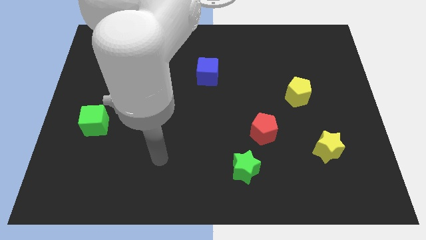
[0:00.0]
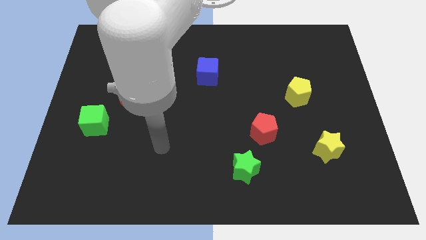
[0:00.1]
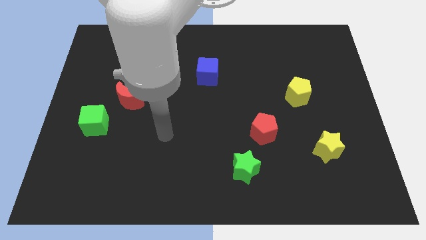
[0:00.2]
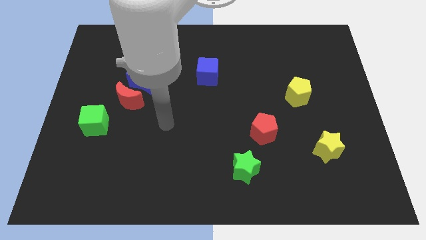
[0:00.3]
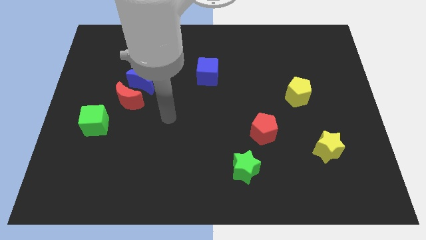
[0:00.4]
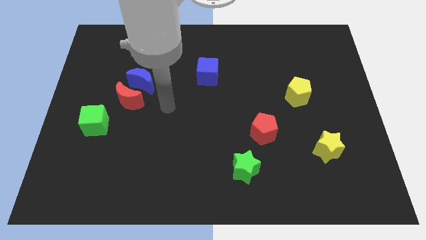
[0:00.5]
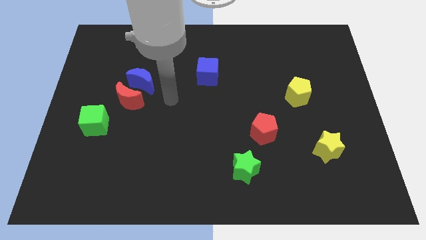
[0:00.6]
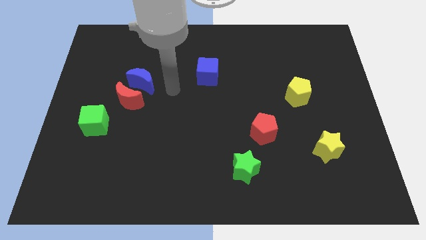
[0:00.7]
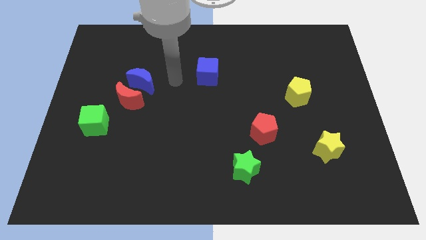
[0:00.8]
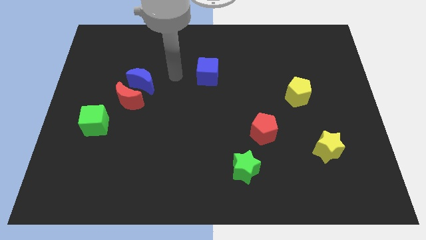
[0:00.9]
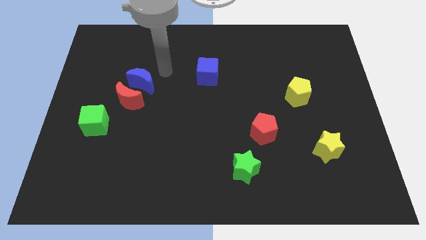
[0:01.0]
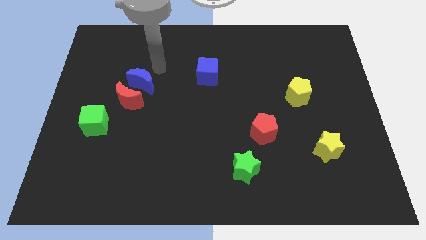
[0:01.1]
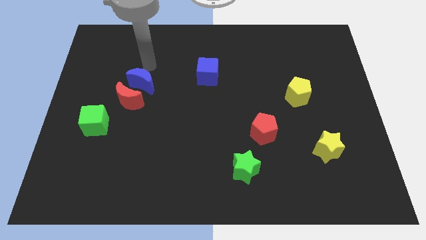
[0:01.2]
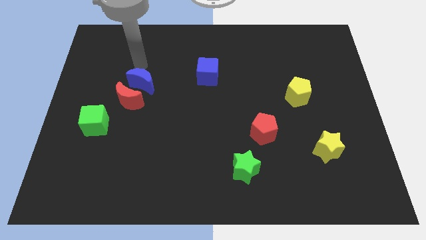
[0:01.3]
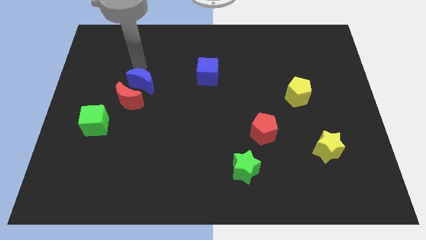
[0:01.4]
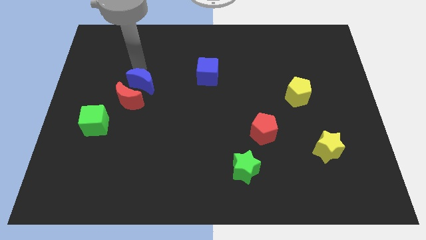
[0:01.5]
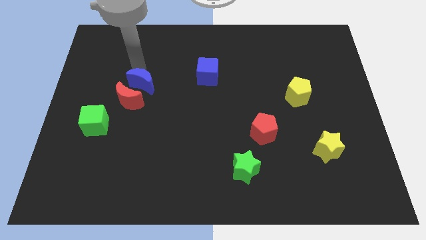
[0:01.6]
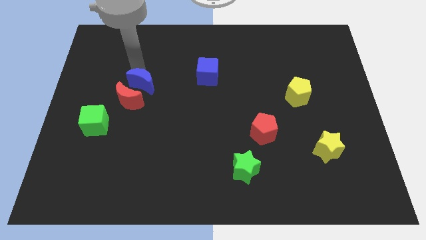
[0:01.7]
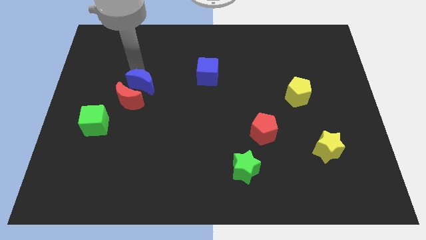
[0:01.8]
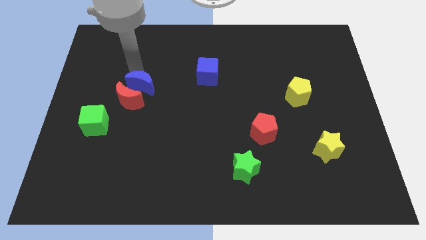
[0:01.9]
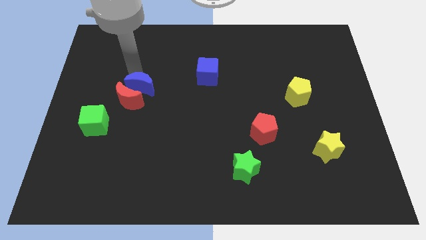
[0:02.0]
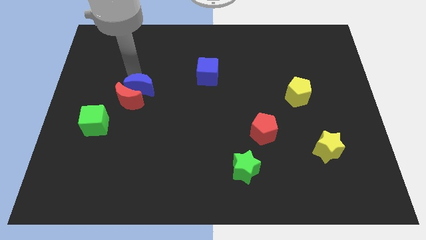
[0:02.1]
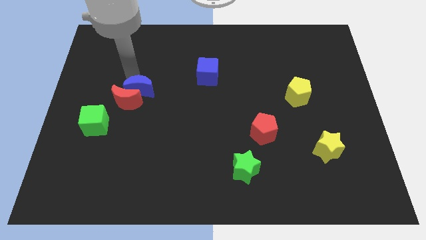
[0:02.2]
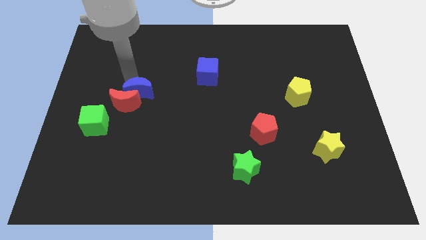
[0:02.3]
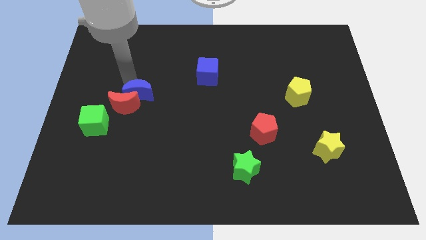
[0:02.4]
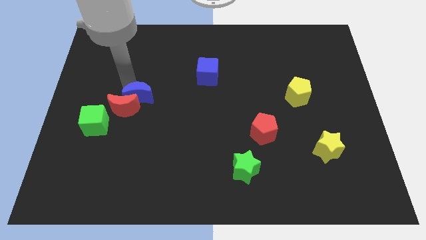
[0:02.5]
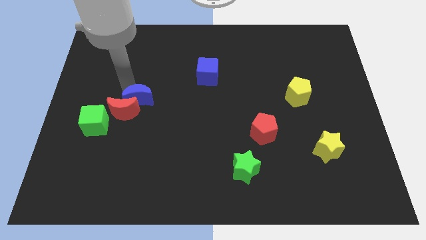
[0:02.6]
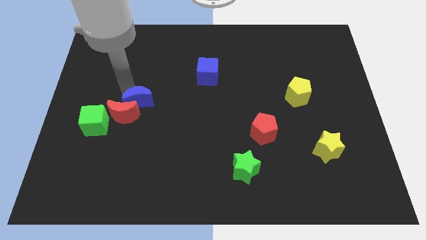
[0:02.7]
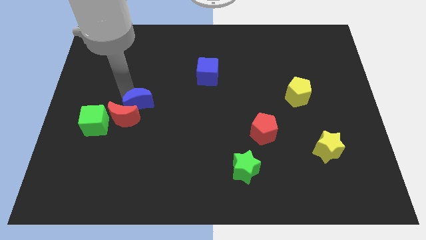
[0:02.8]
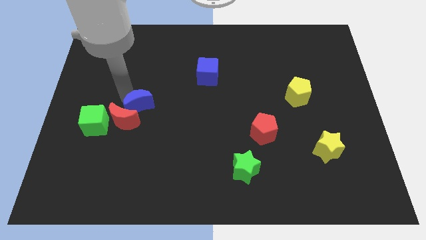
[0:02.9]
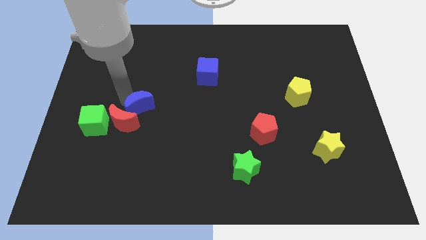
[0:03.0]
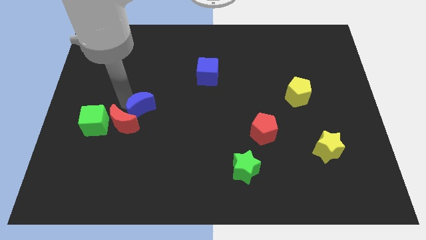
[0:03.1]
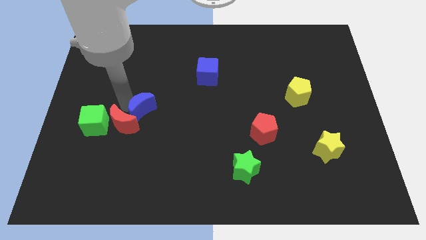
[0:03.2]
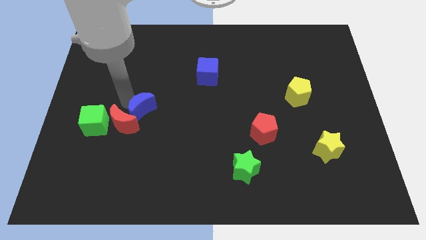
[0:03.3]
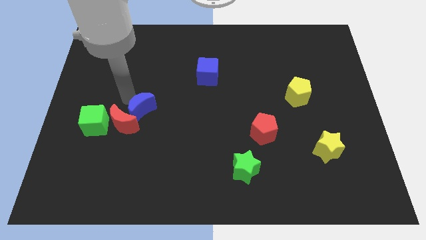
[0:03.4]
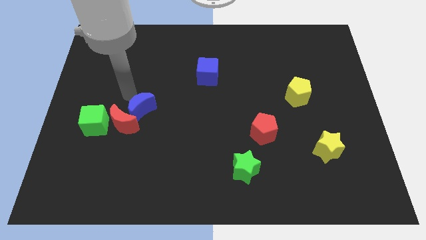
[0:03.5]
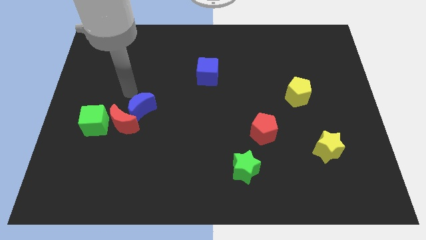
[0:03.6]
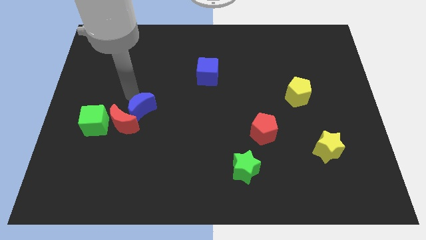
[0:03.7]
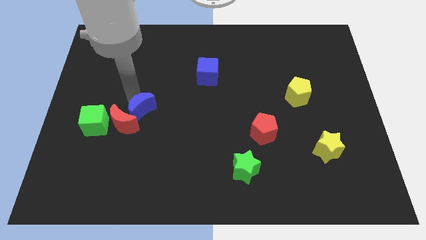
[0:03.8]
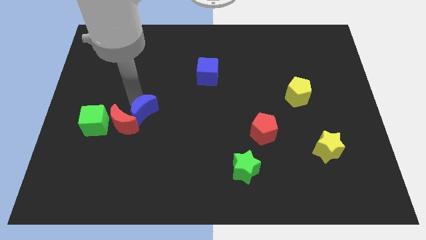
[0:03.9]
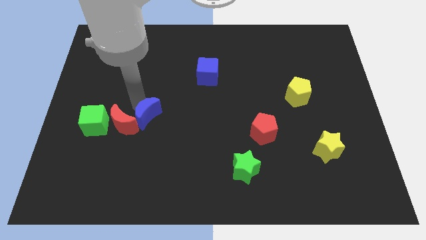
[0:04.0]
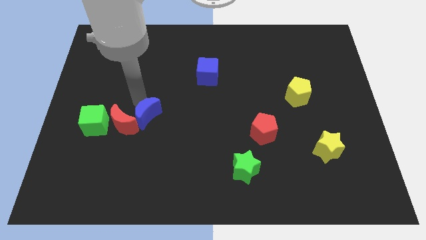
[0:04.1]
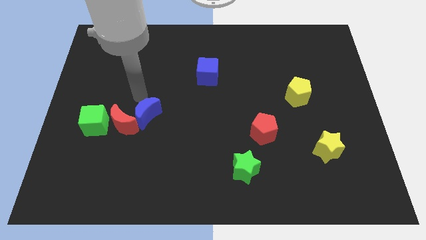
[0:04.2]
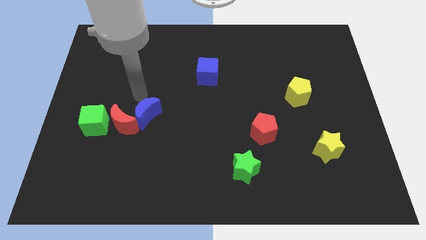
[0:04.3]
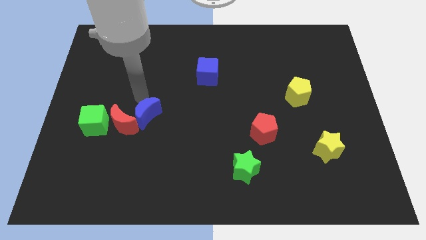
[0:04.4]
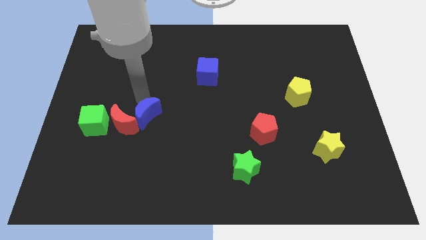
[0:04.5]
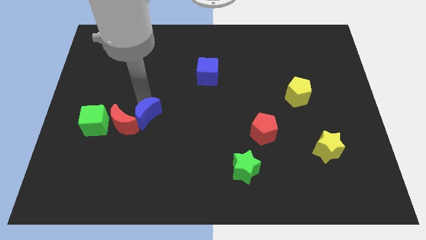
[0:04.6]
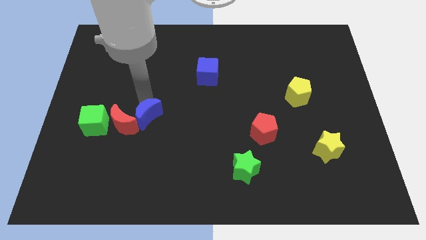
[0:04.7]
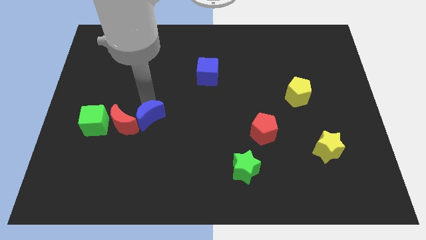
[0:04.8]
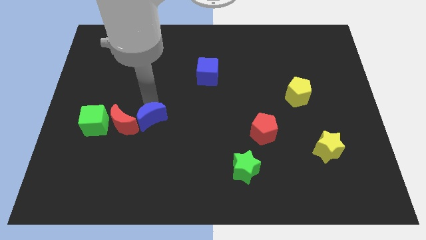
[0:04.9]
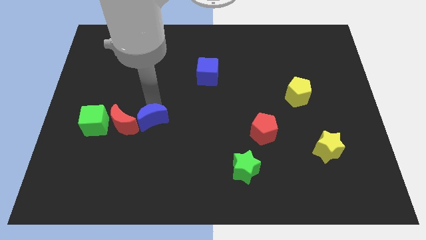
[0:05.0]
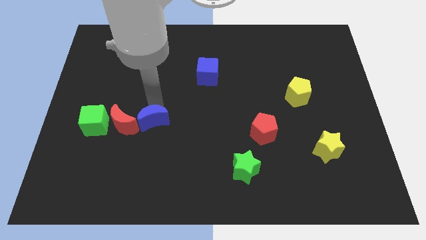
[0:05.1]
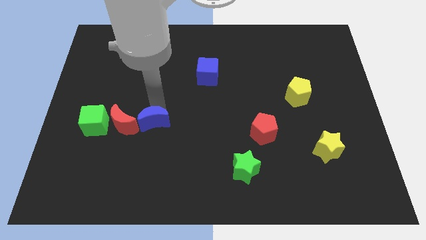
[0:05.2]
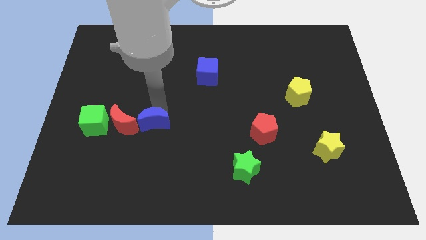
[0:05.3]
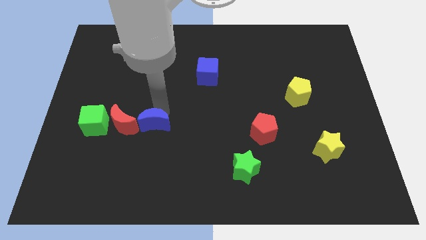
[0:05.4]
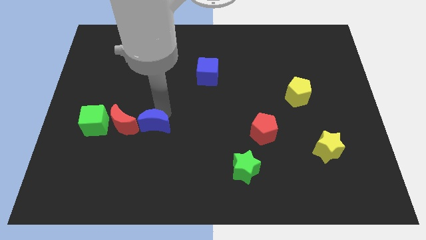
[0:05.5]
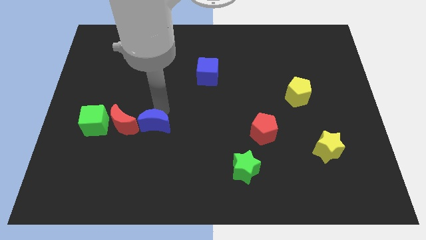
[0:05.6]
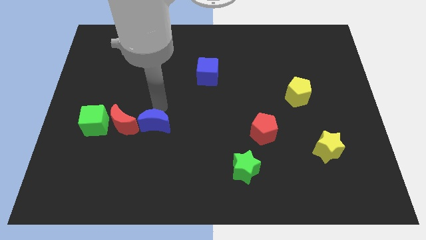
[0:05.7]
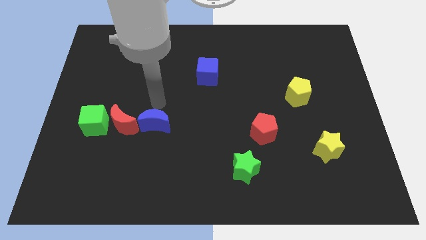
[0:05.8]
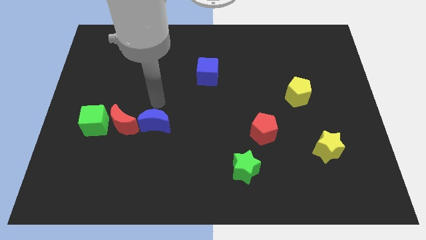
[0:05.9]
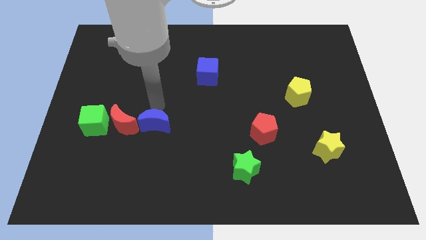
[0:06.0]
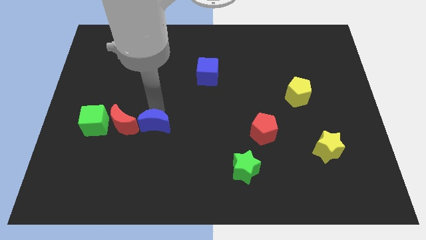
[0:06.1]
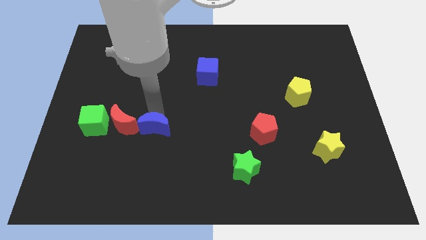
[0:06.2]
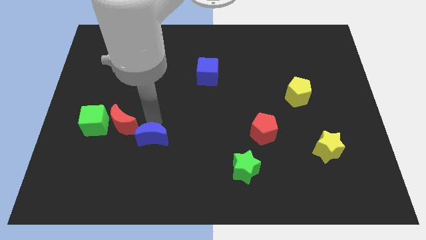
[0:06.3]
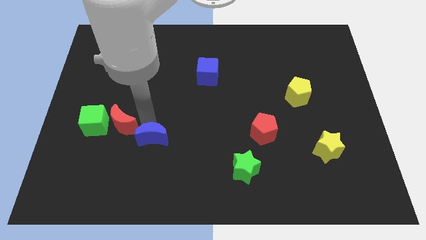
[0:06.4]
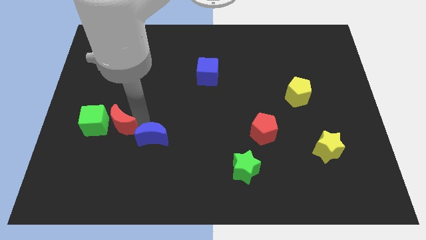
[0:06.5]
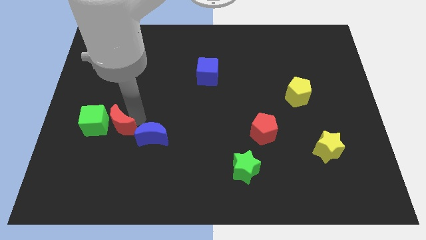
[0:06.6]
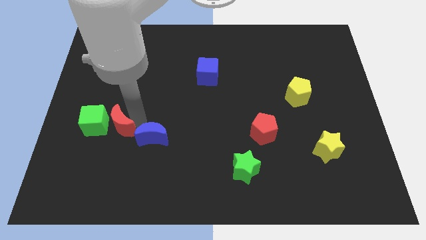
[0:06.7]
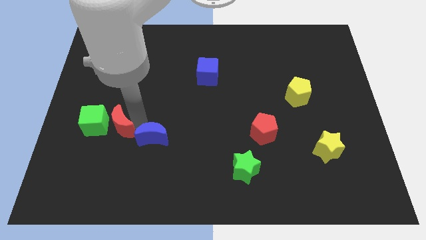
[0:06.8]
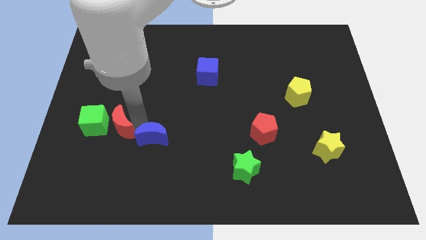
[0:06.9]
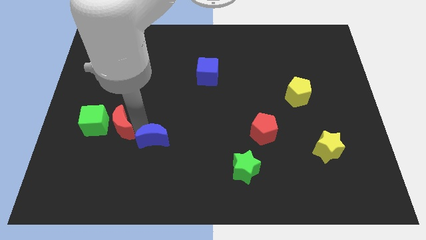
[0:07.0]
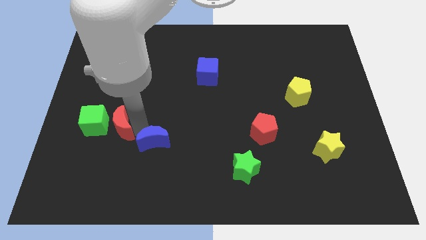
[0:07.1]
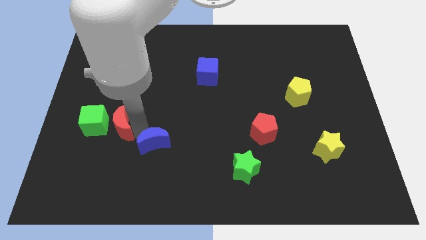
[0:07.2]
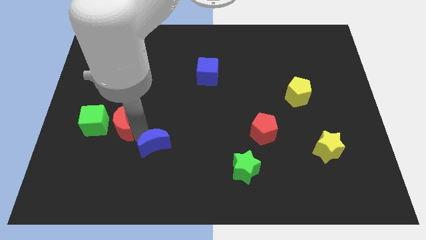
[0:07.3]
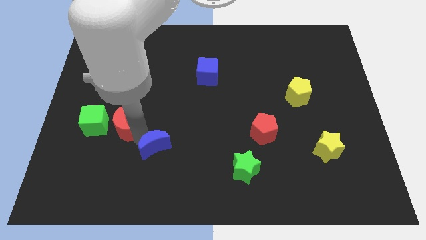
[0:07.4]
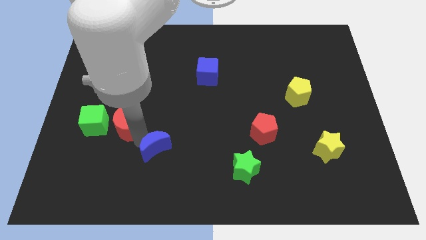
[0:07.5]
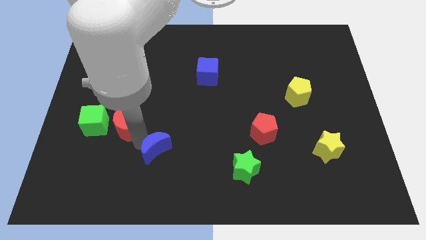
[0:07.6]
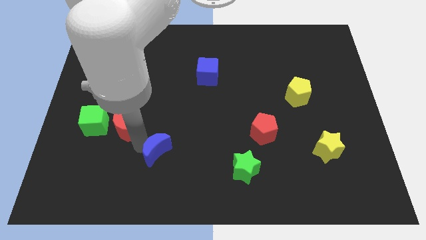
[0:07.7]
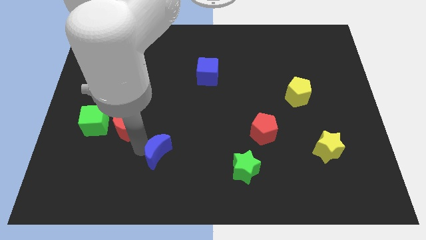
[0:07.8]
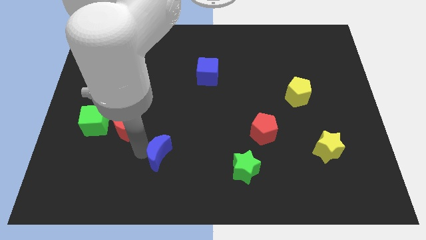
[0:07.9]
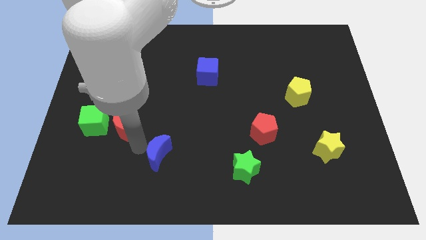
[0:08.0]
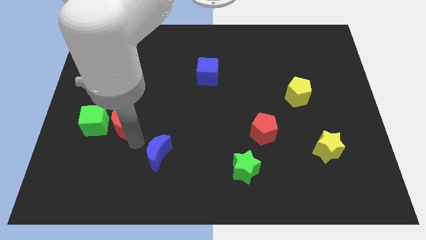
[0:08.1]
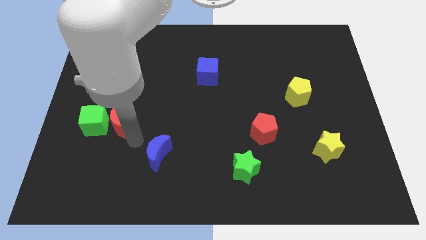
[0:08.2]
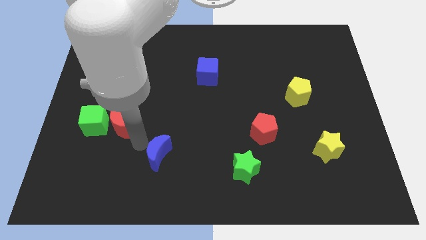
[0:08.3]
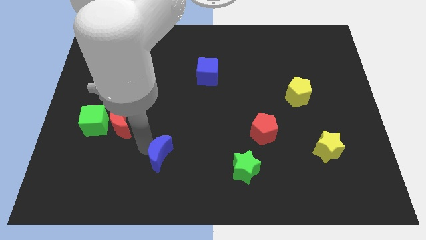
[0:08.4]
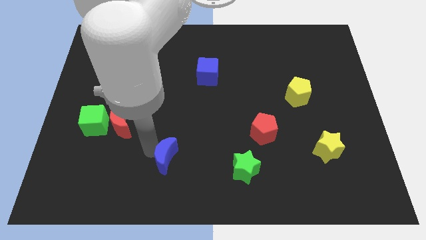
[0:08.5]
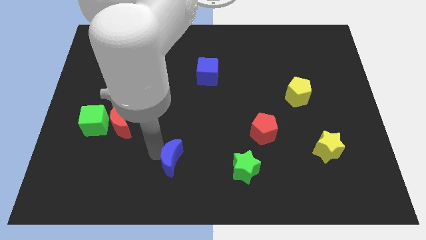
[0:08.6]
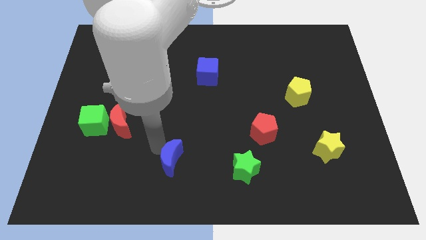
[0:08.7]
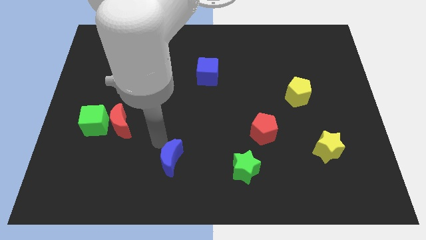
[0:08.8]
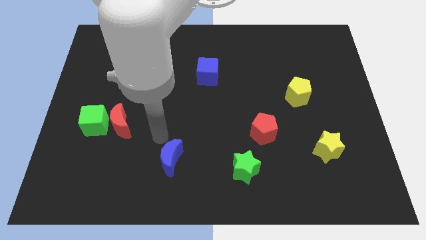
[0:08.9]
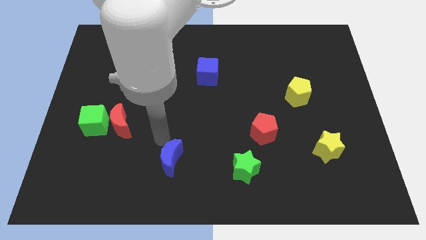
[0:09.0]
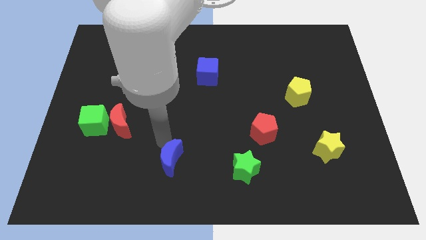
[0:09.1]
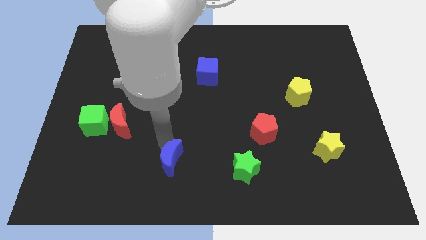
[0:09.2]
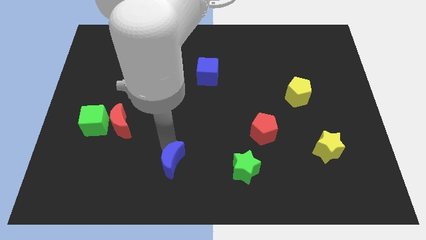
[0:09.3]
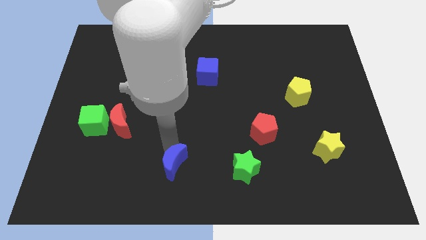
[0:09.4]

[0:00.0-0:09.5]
push the blue moon to the bottom
